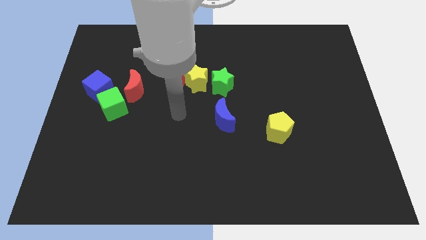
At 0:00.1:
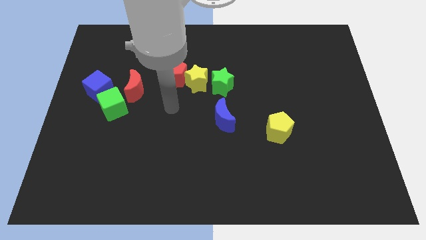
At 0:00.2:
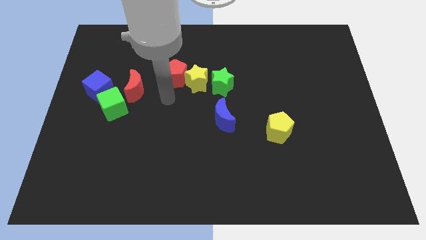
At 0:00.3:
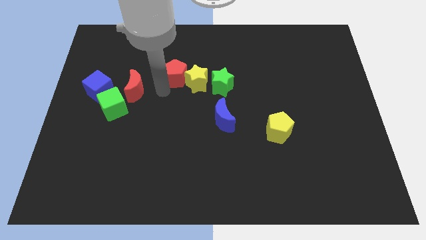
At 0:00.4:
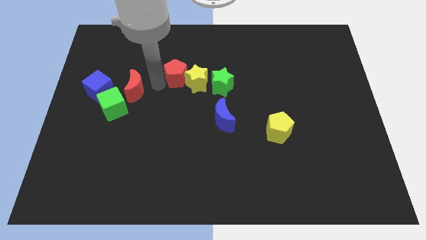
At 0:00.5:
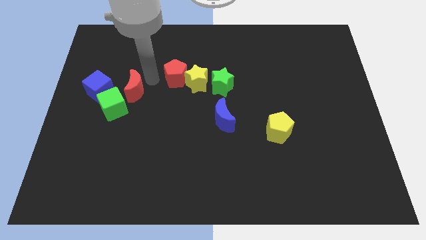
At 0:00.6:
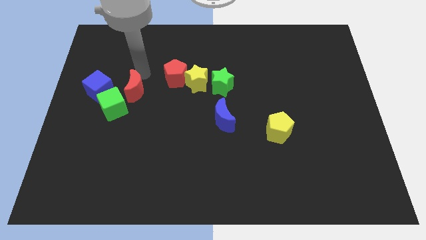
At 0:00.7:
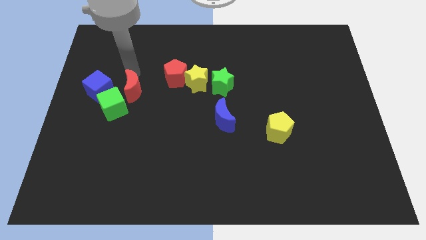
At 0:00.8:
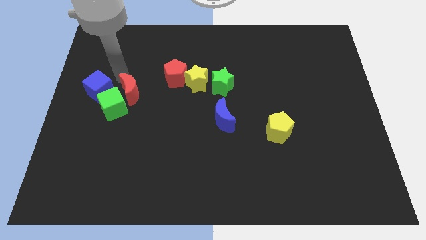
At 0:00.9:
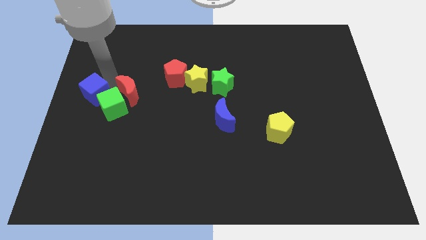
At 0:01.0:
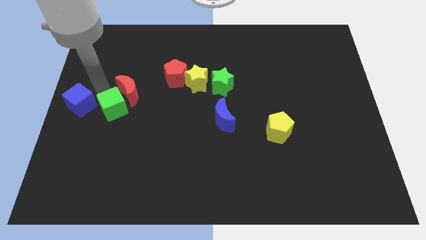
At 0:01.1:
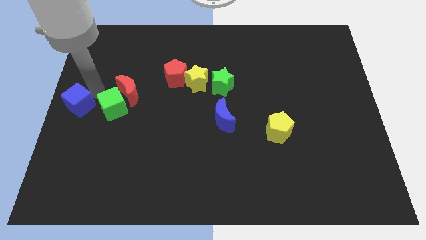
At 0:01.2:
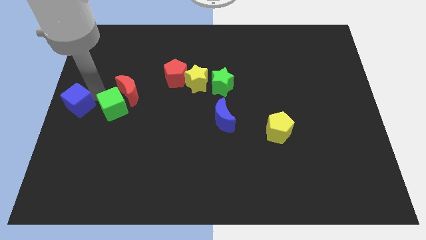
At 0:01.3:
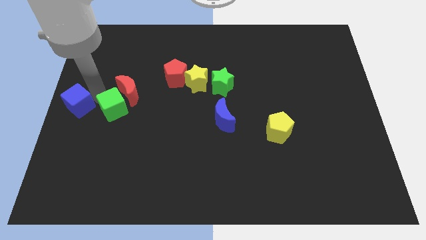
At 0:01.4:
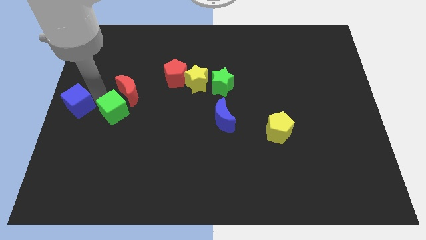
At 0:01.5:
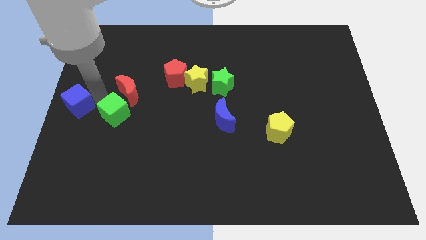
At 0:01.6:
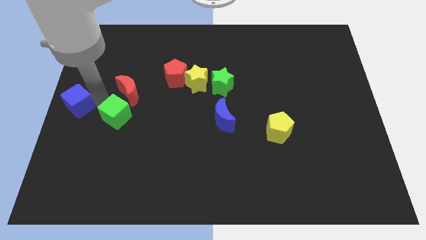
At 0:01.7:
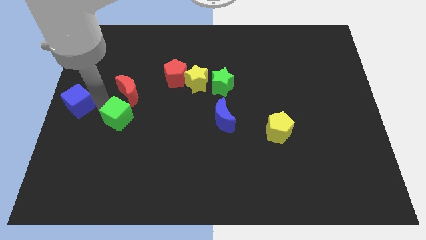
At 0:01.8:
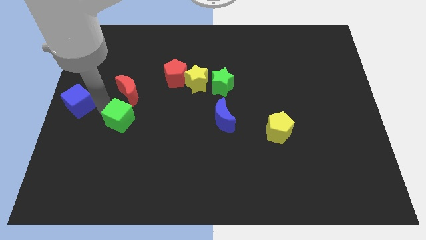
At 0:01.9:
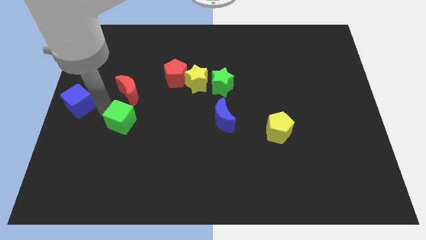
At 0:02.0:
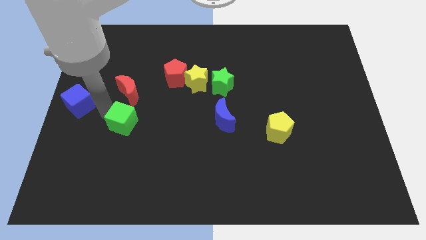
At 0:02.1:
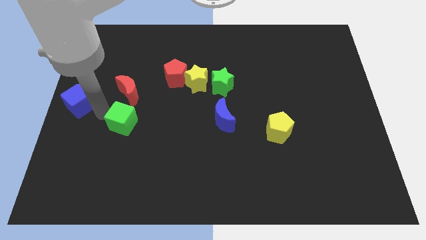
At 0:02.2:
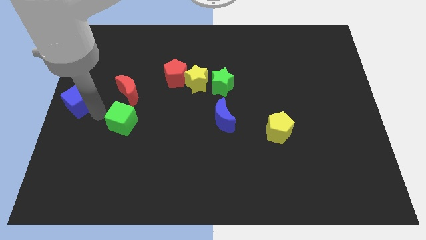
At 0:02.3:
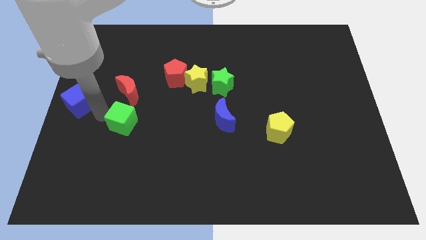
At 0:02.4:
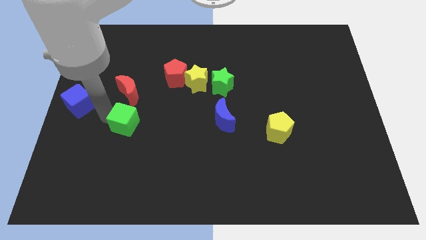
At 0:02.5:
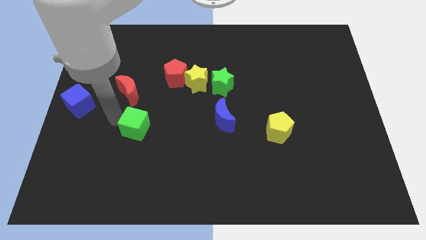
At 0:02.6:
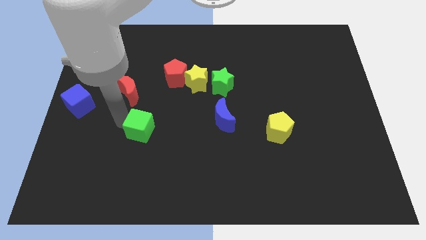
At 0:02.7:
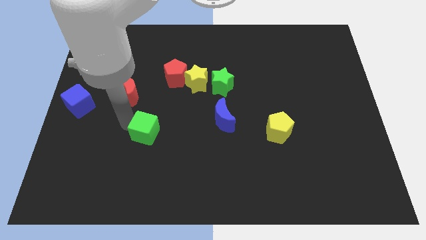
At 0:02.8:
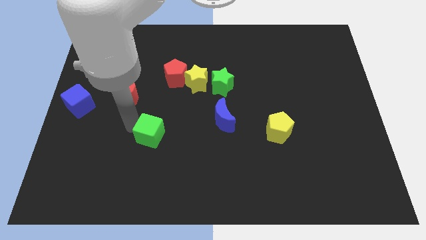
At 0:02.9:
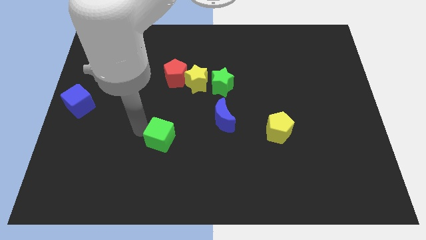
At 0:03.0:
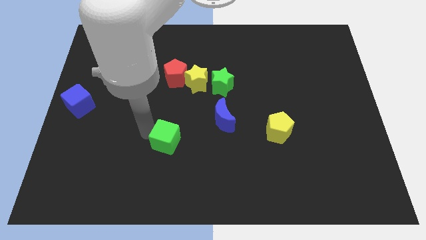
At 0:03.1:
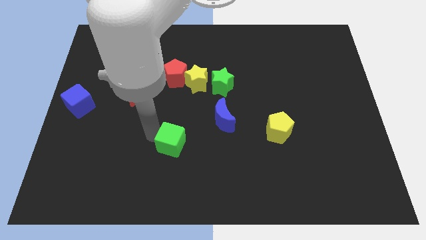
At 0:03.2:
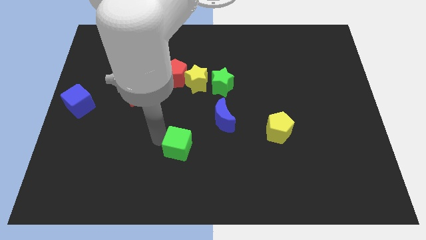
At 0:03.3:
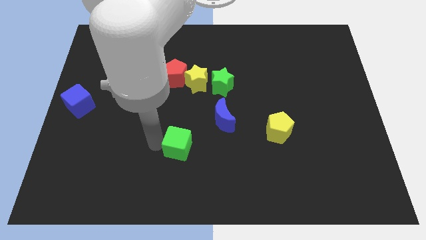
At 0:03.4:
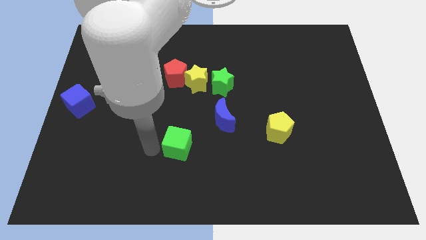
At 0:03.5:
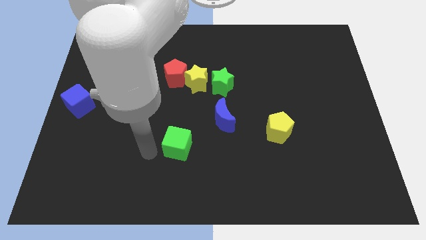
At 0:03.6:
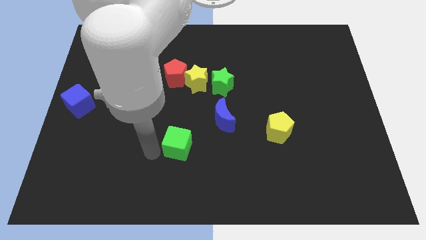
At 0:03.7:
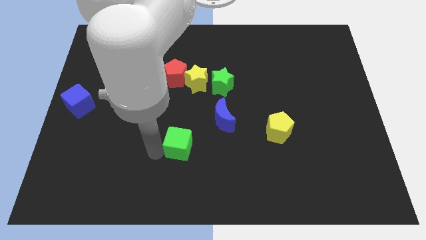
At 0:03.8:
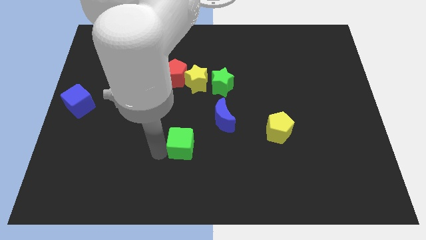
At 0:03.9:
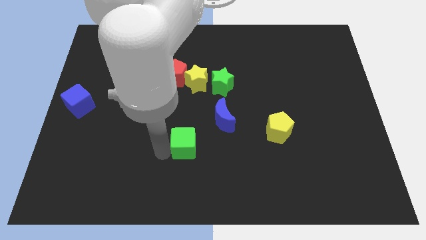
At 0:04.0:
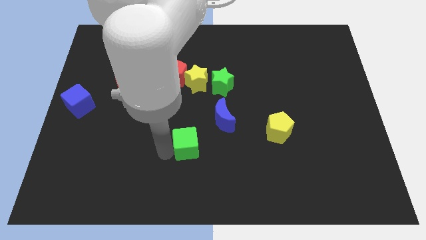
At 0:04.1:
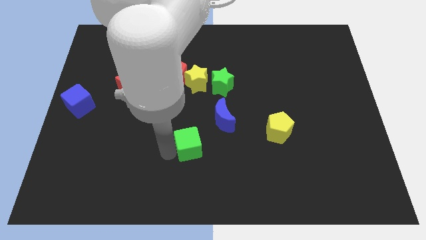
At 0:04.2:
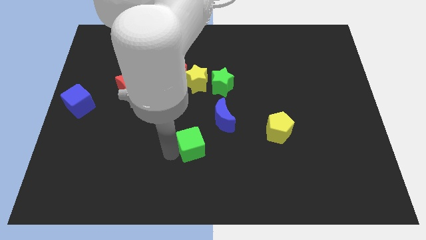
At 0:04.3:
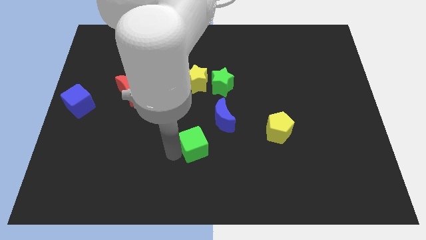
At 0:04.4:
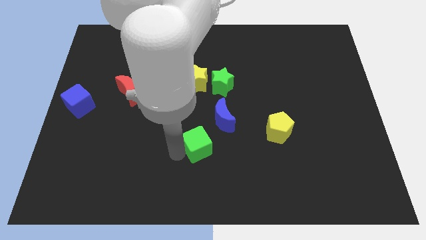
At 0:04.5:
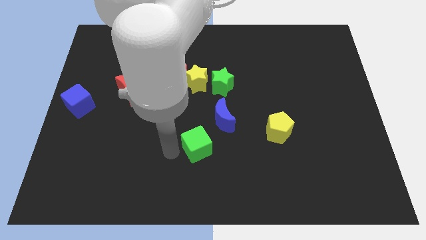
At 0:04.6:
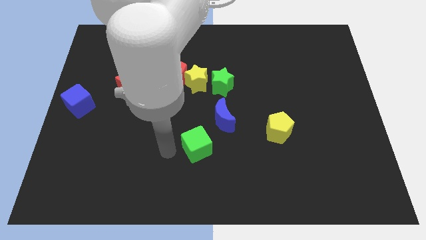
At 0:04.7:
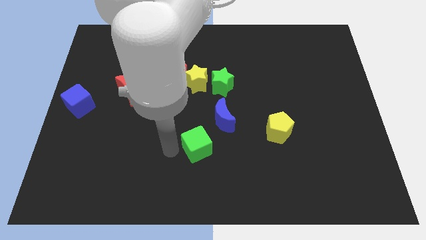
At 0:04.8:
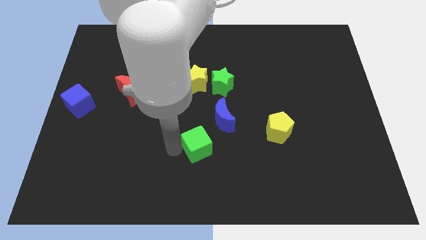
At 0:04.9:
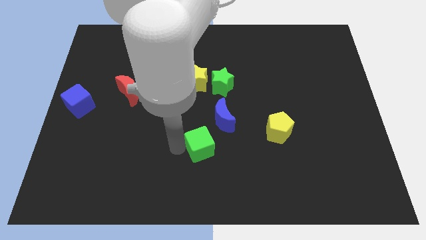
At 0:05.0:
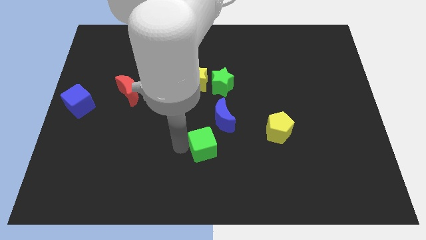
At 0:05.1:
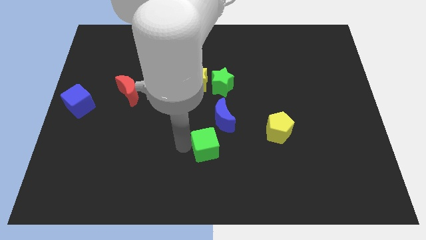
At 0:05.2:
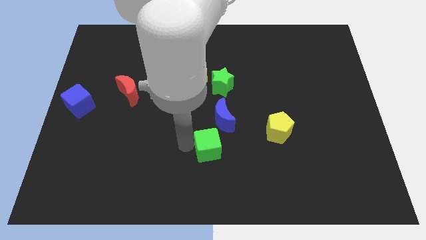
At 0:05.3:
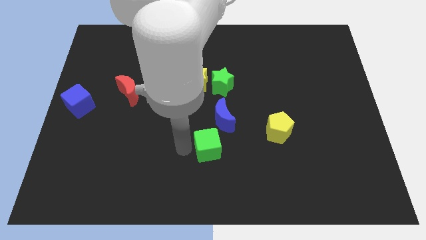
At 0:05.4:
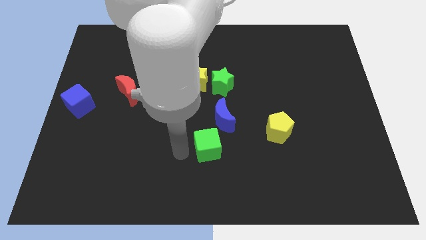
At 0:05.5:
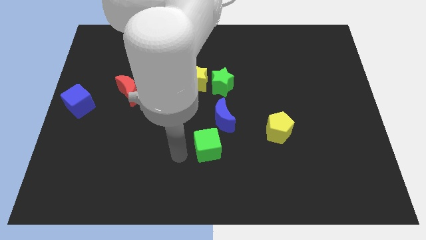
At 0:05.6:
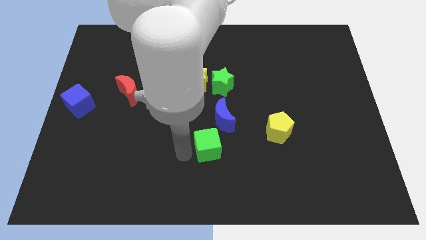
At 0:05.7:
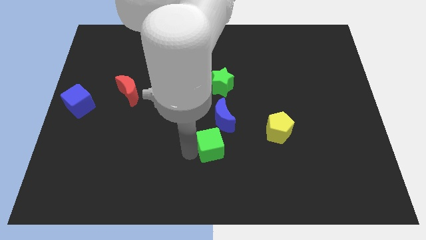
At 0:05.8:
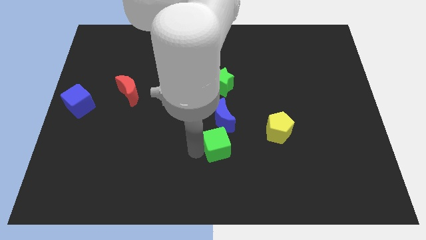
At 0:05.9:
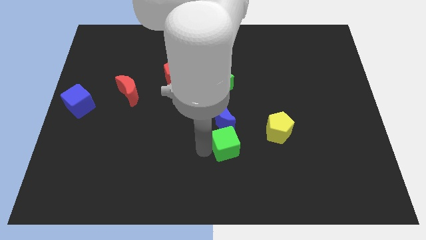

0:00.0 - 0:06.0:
put the green cube diagonally down and to the right of the blue moon

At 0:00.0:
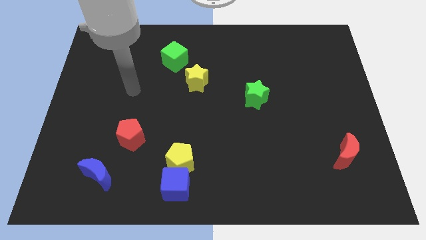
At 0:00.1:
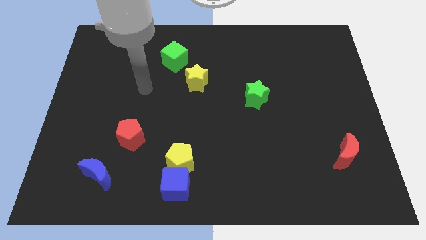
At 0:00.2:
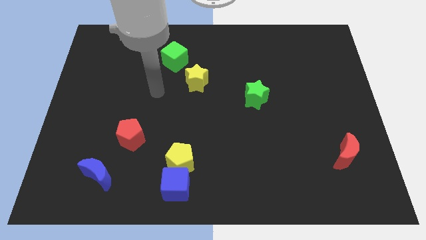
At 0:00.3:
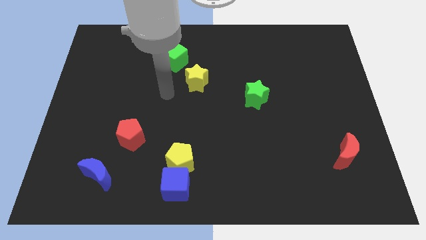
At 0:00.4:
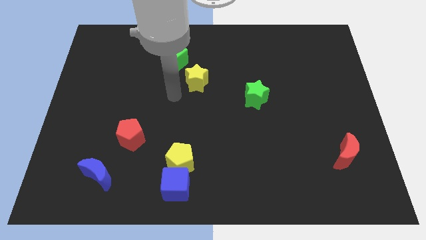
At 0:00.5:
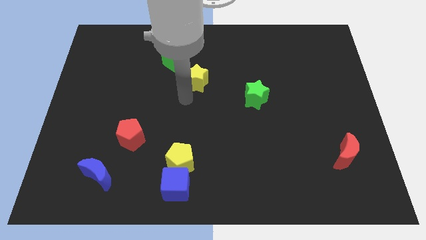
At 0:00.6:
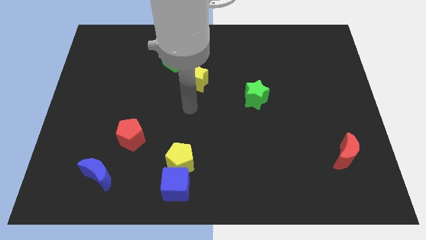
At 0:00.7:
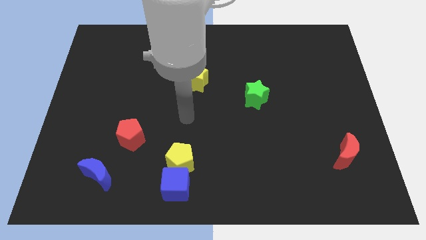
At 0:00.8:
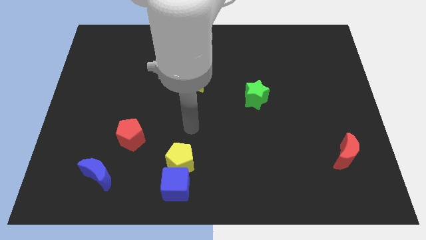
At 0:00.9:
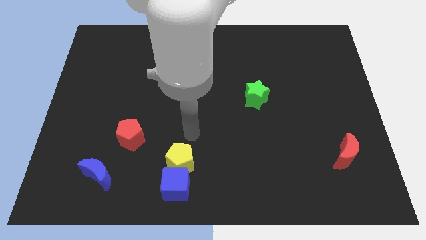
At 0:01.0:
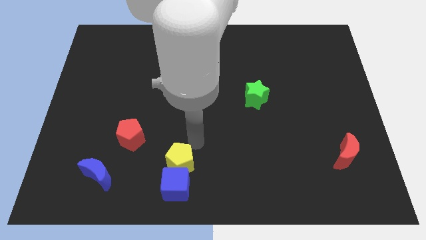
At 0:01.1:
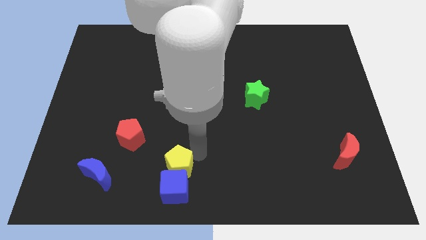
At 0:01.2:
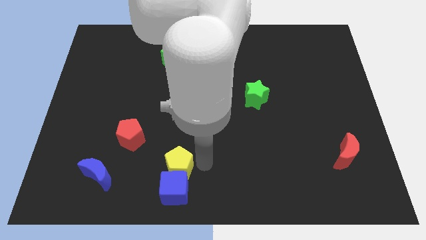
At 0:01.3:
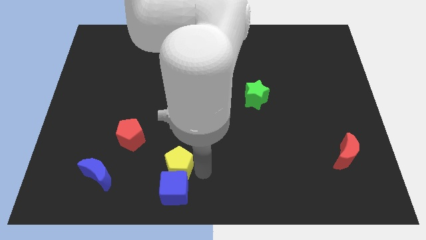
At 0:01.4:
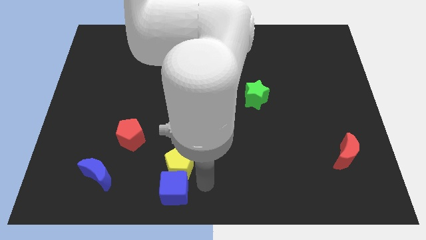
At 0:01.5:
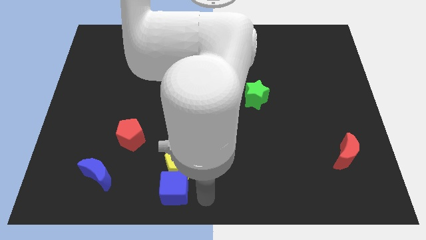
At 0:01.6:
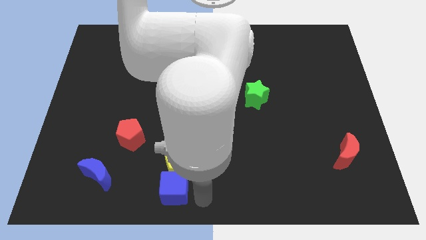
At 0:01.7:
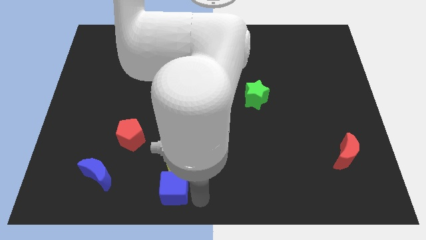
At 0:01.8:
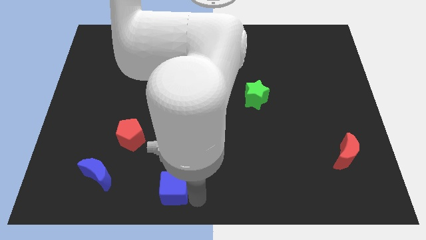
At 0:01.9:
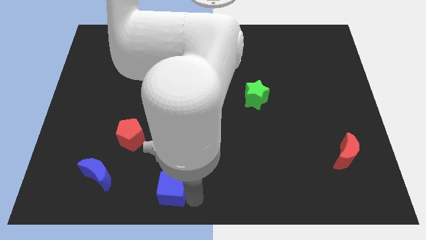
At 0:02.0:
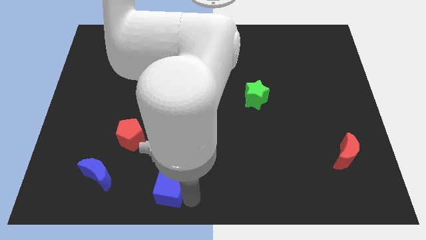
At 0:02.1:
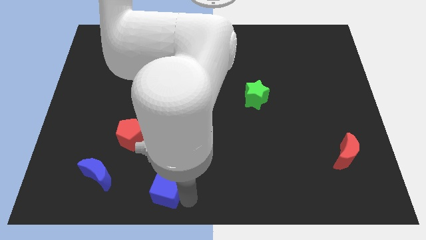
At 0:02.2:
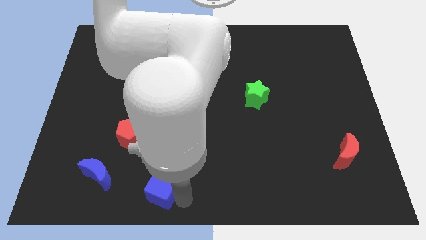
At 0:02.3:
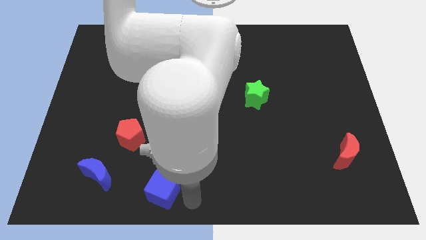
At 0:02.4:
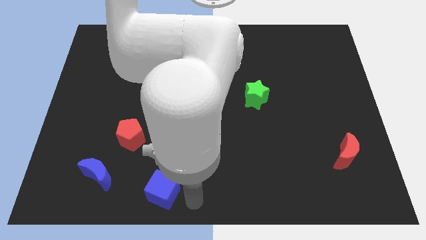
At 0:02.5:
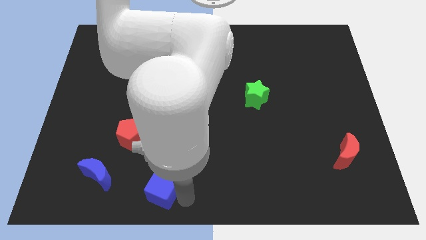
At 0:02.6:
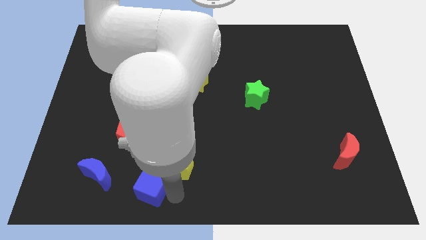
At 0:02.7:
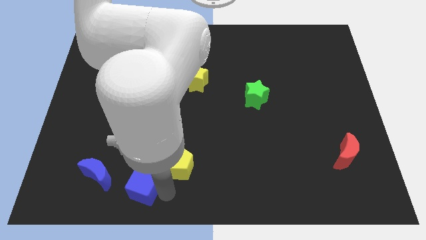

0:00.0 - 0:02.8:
put the blue cube to the bottom of the red pentagon
